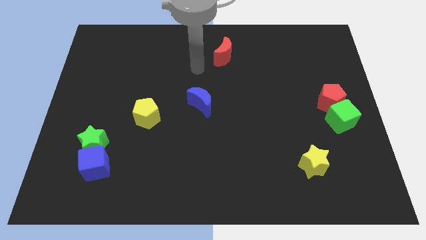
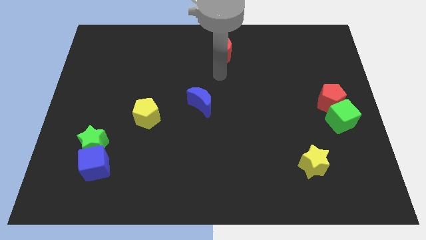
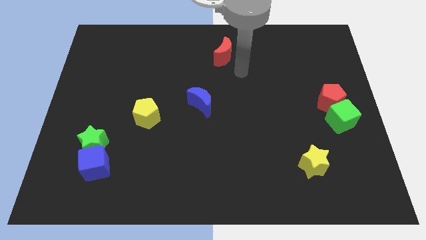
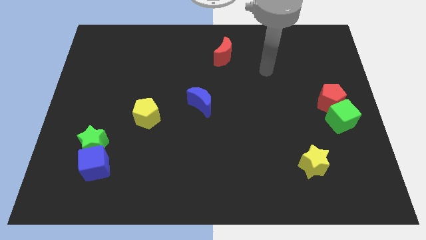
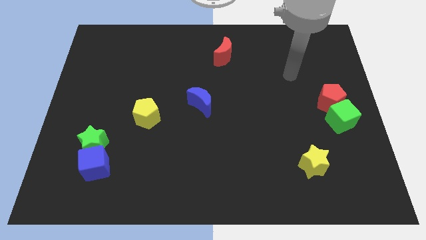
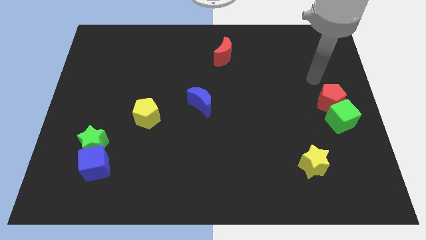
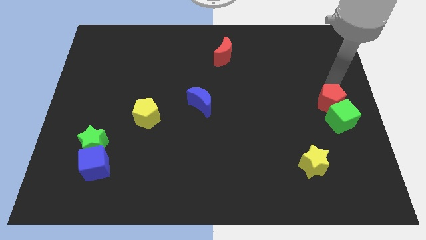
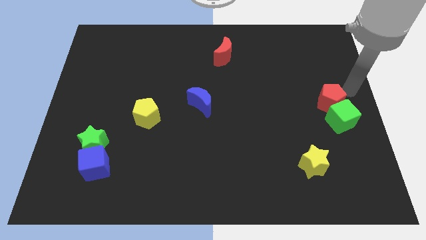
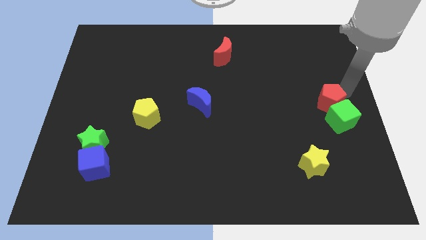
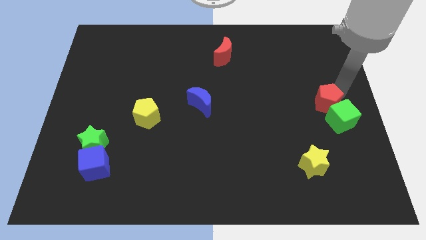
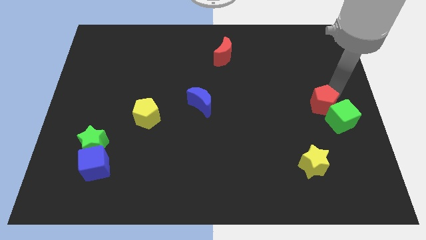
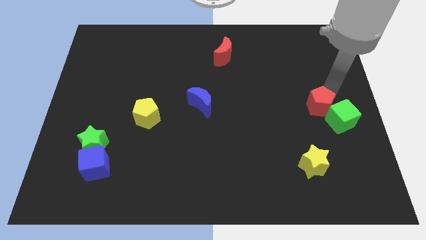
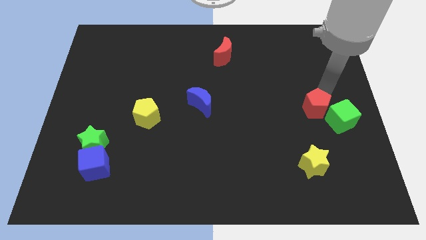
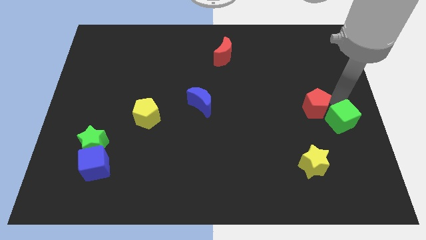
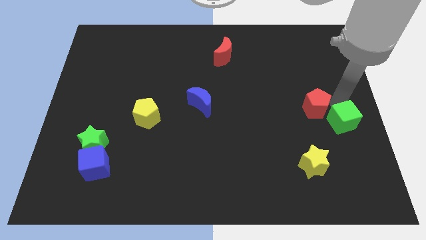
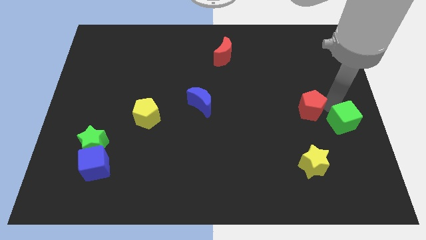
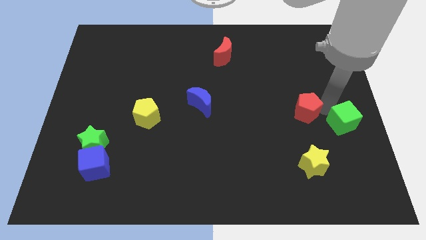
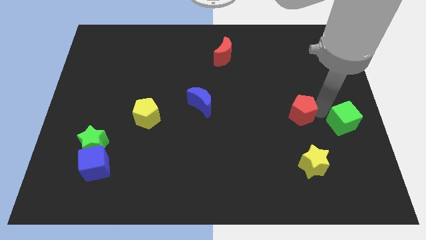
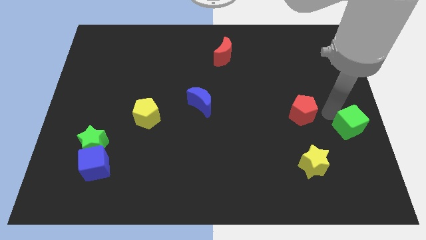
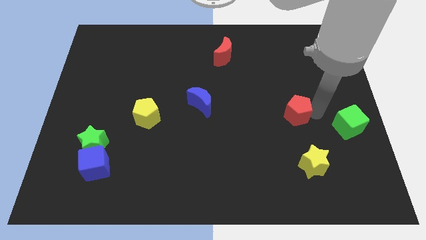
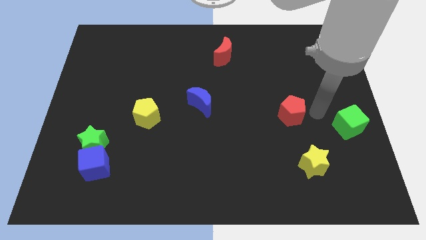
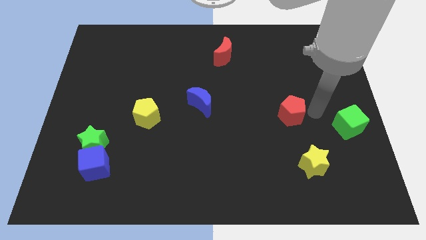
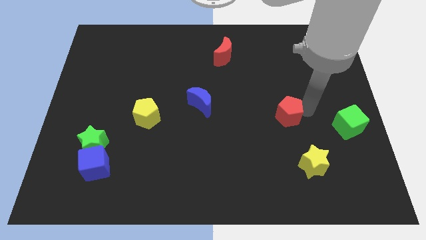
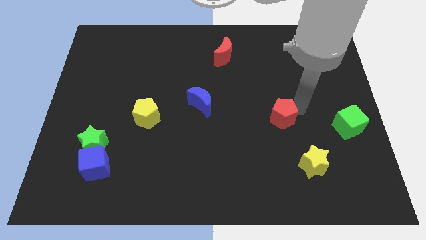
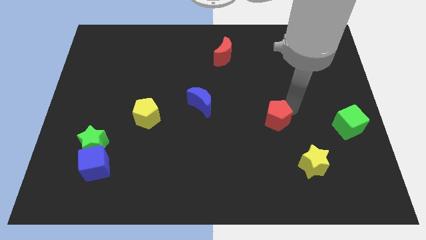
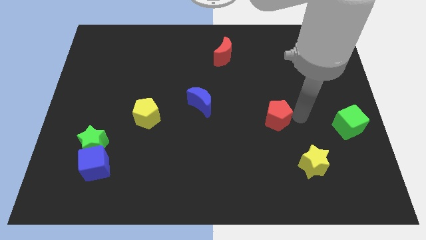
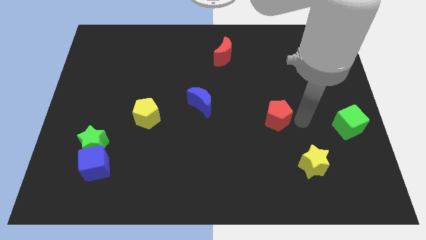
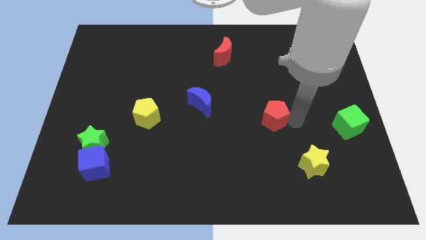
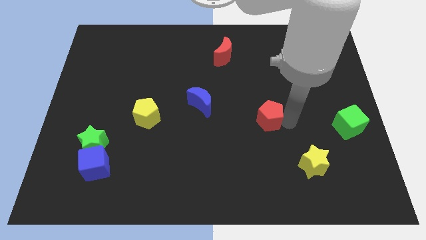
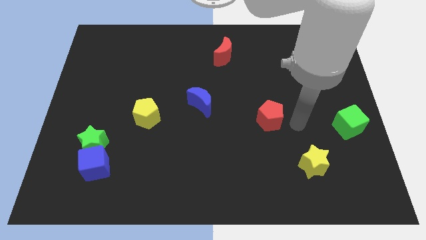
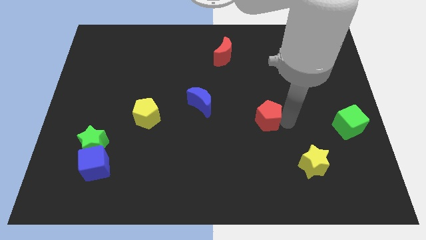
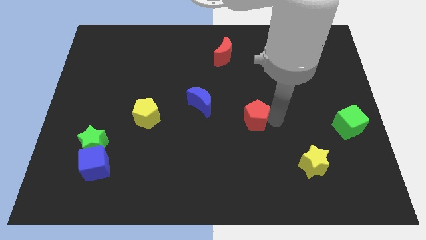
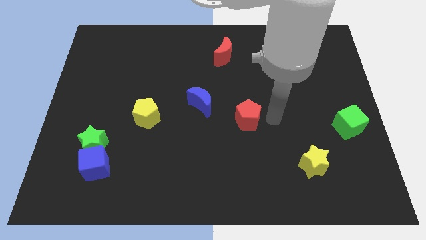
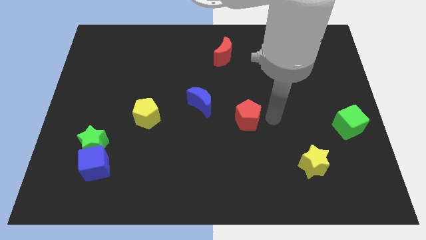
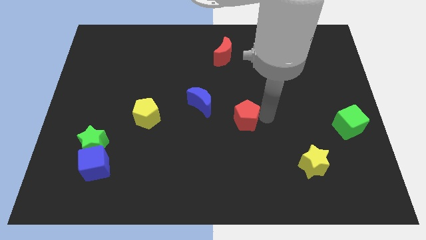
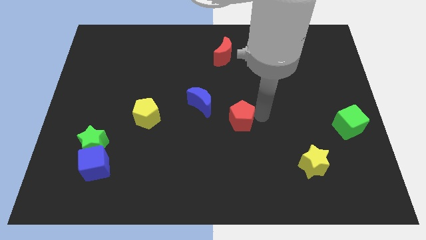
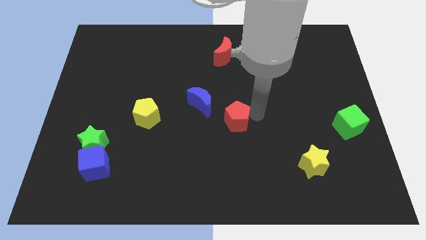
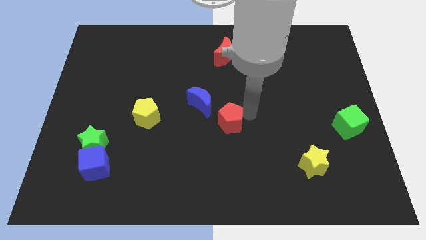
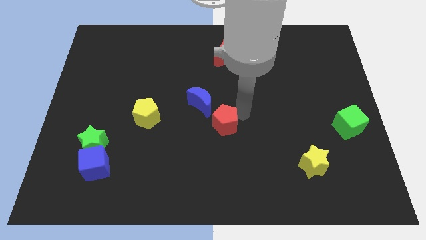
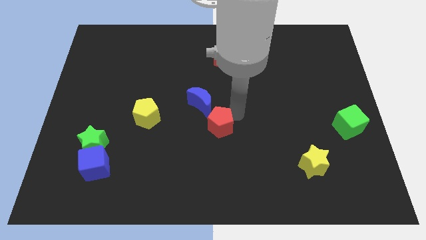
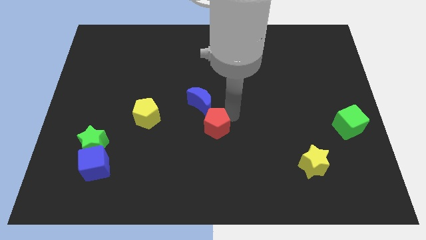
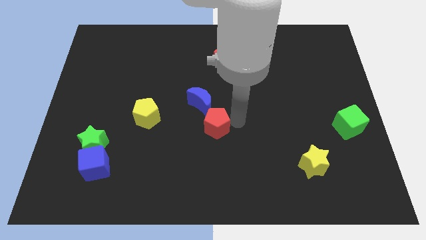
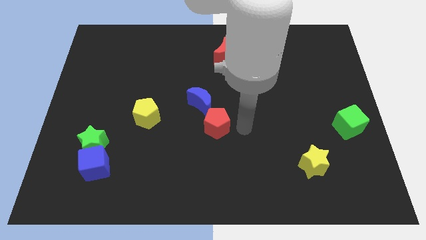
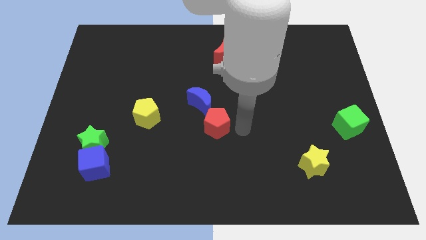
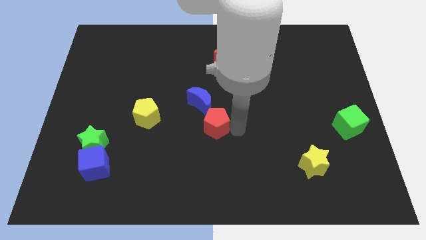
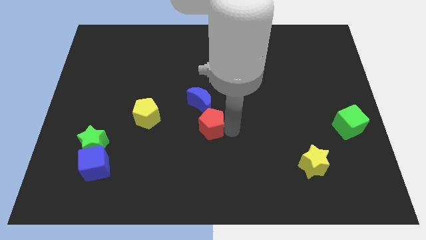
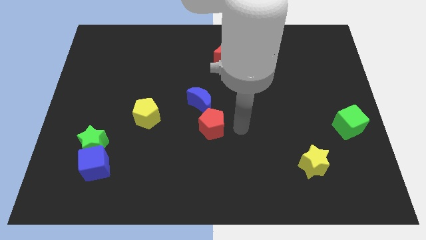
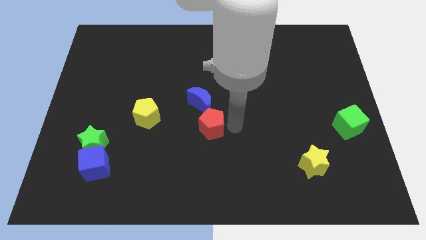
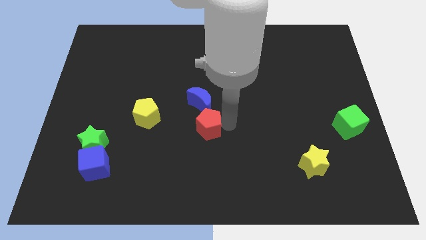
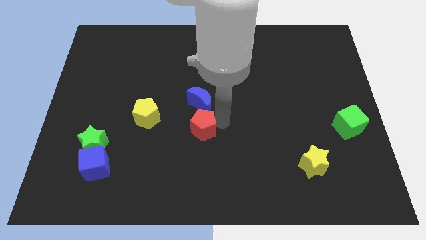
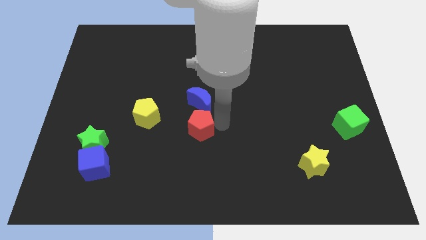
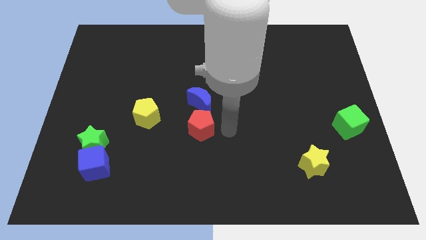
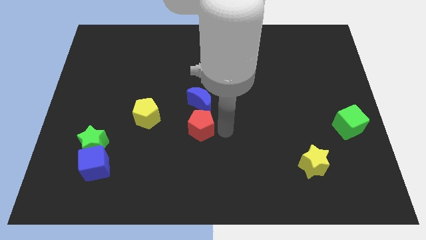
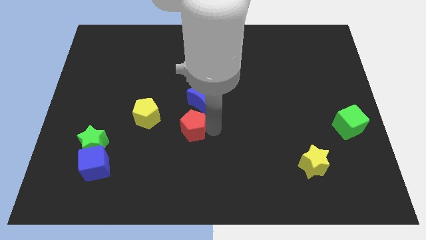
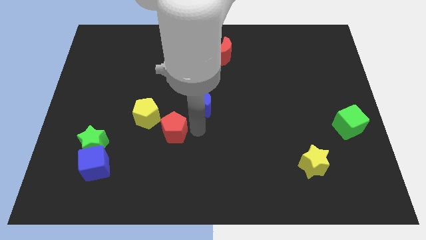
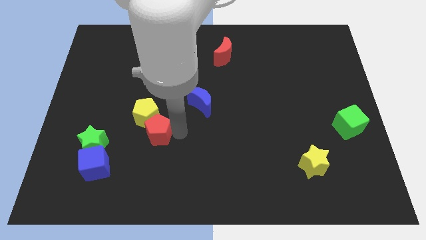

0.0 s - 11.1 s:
move the red pentagon close to the yellow pentagon

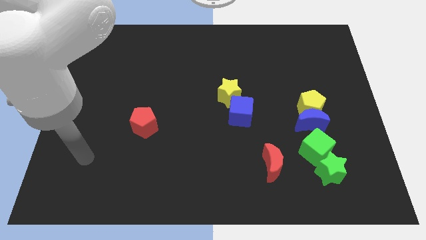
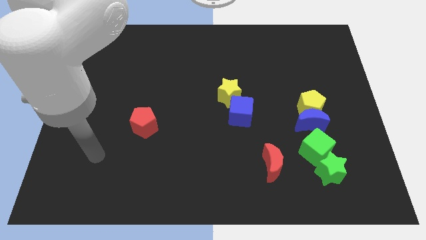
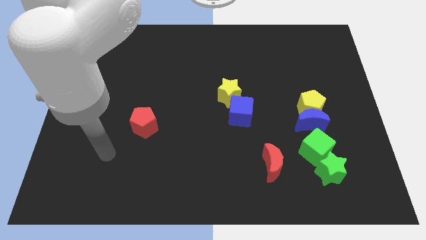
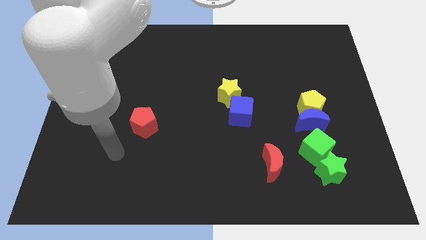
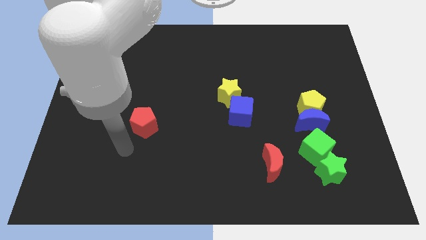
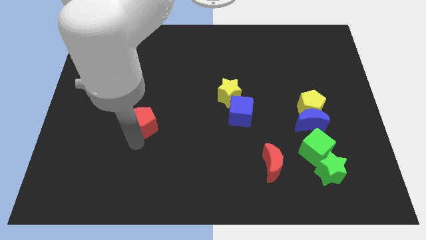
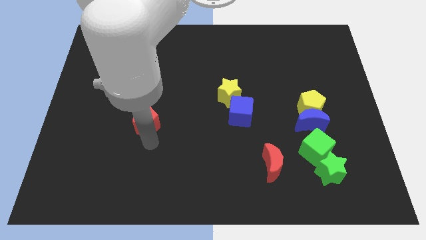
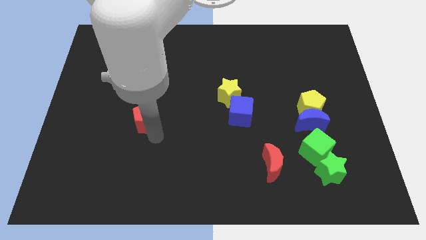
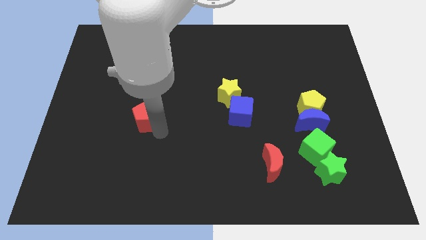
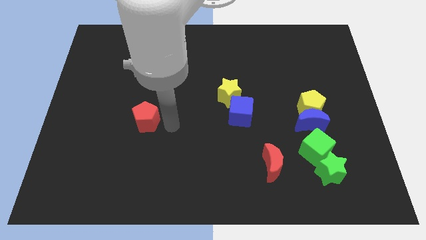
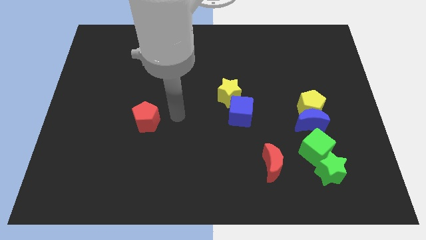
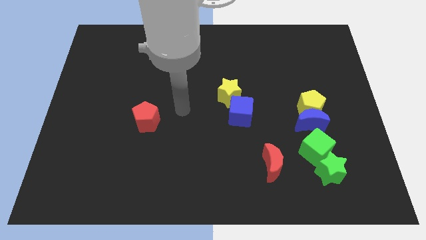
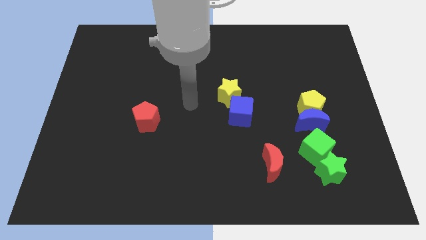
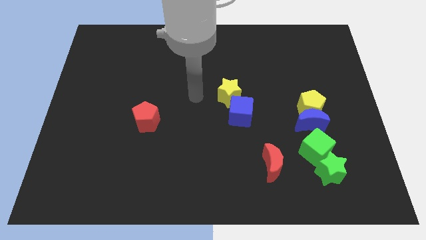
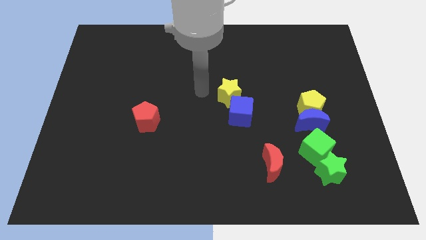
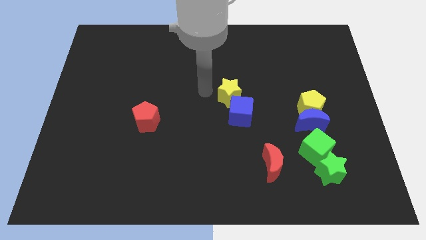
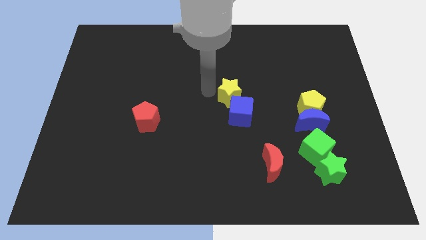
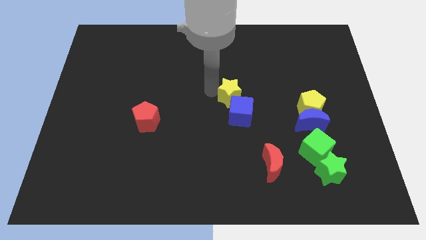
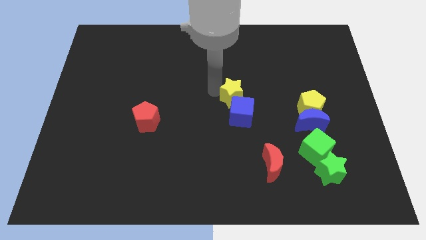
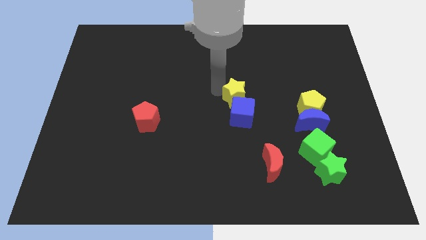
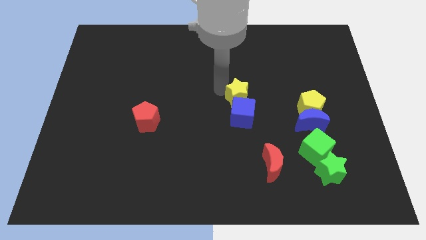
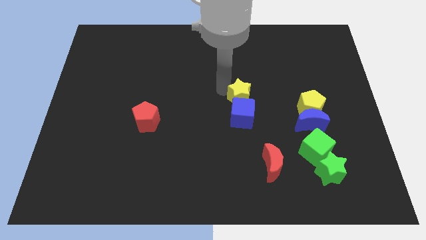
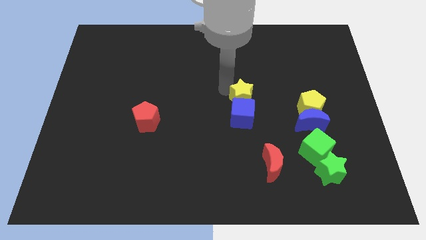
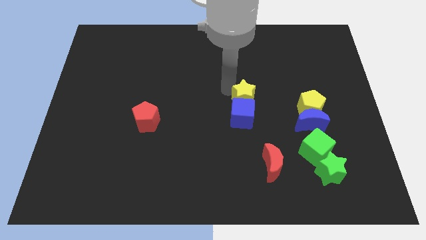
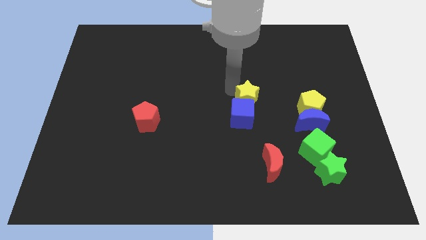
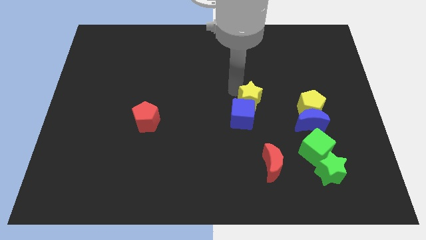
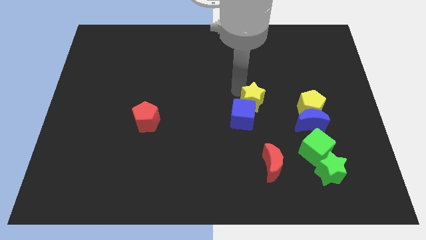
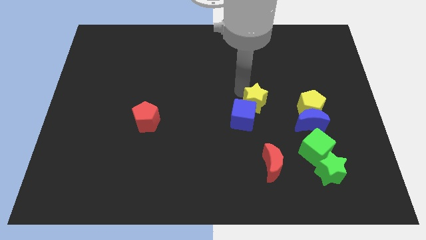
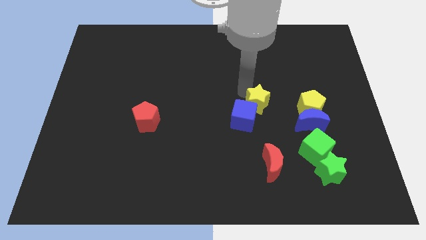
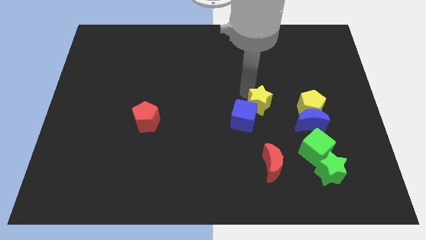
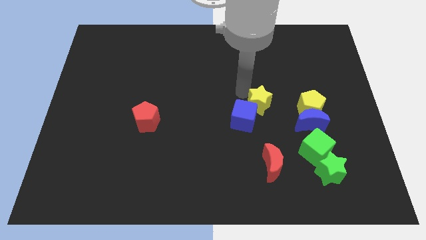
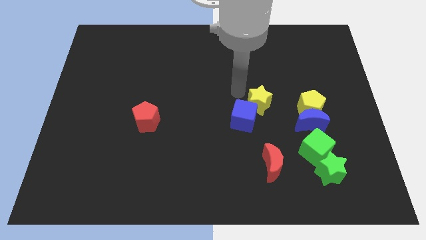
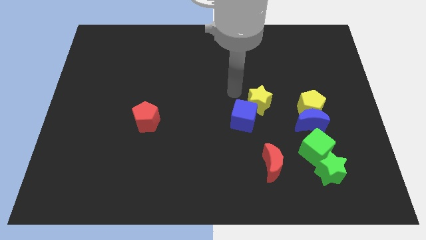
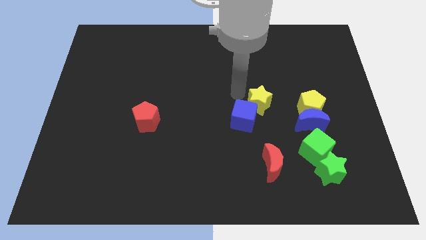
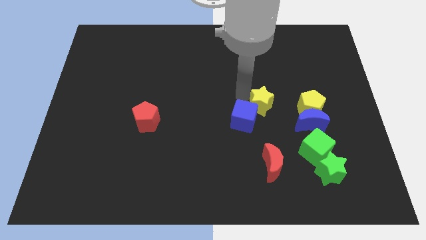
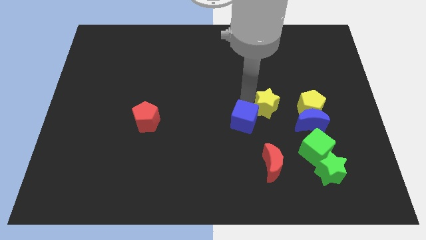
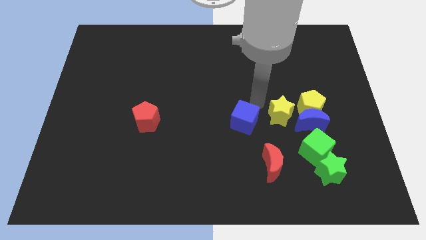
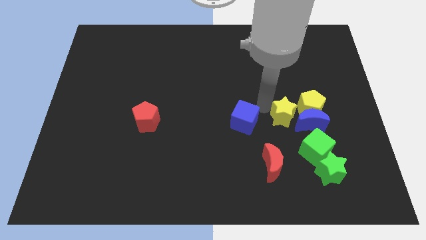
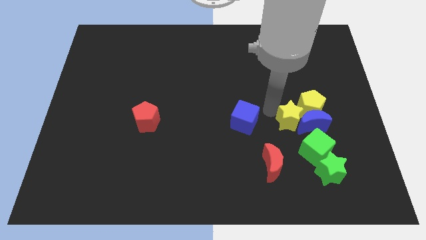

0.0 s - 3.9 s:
slide the yellow star next to the blue moon
